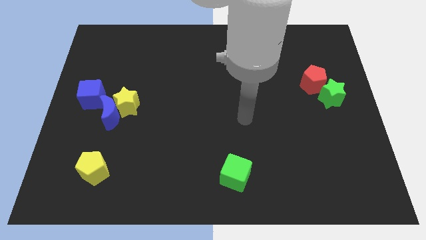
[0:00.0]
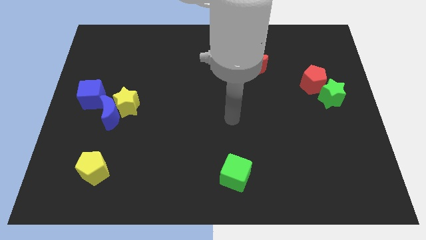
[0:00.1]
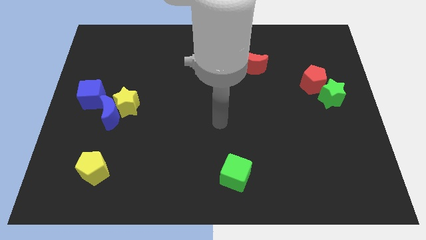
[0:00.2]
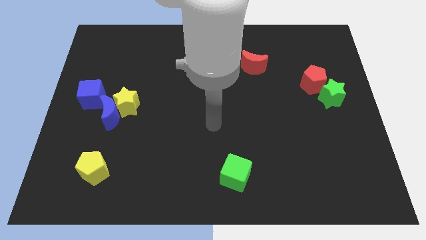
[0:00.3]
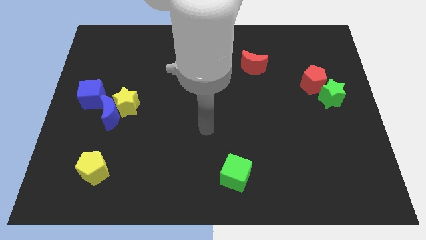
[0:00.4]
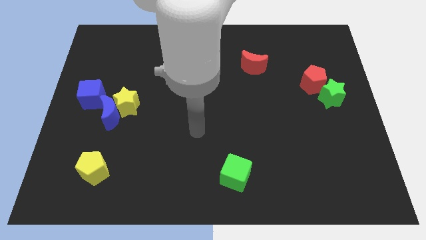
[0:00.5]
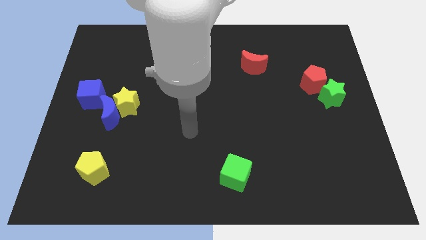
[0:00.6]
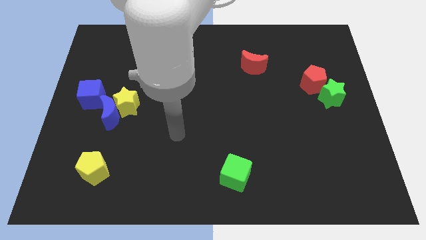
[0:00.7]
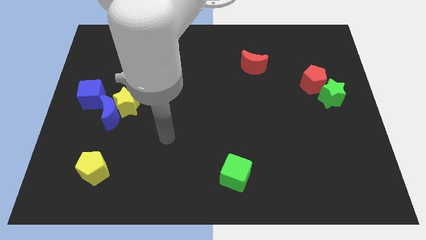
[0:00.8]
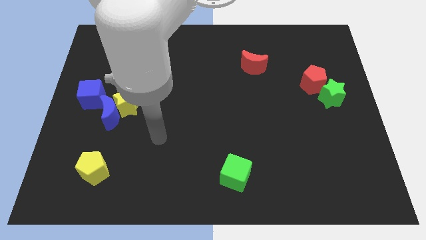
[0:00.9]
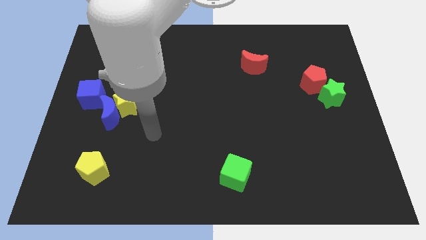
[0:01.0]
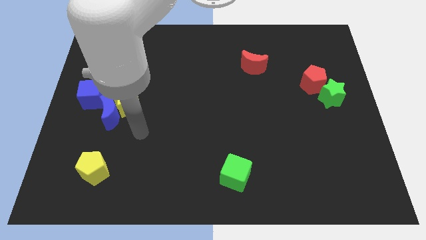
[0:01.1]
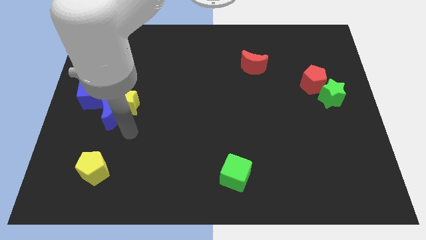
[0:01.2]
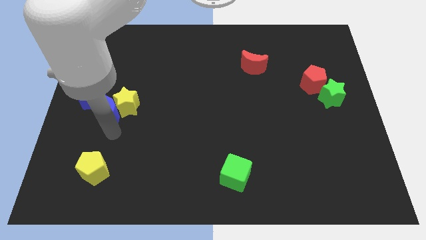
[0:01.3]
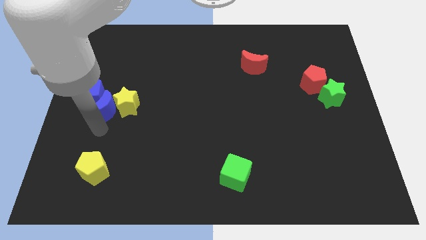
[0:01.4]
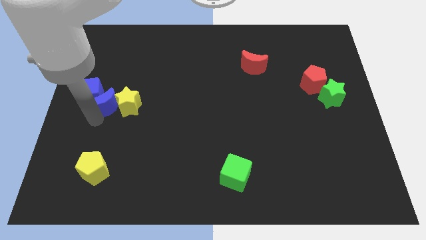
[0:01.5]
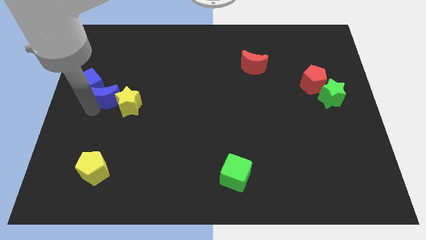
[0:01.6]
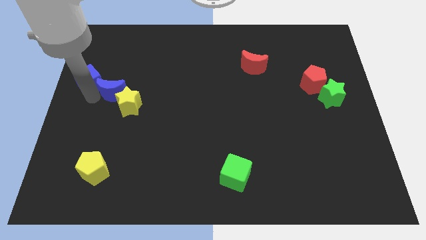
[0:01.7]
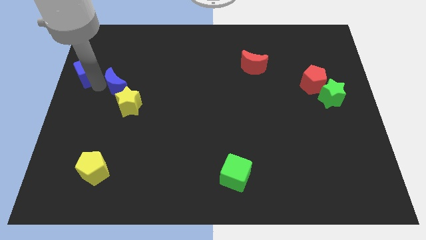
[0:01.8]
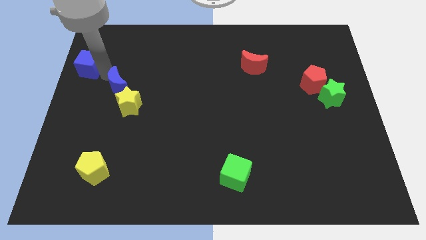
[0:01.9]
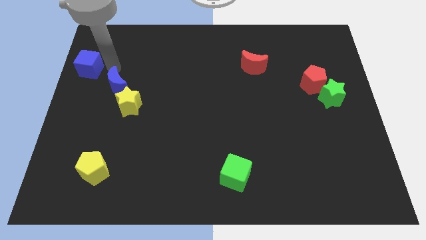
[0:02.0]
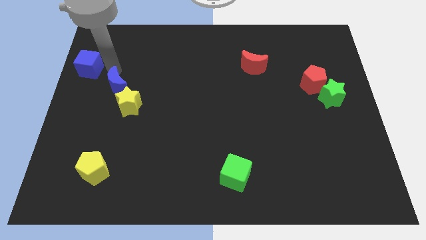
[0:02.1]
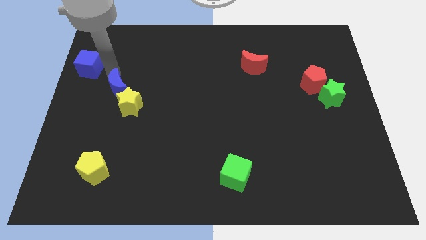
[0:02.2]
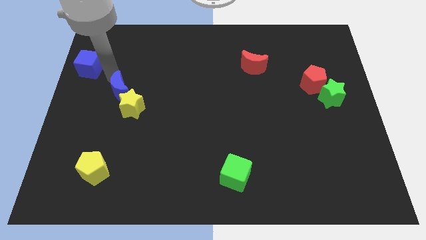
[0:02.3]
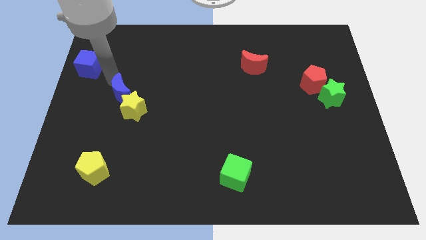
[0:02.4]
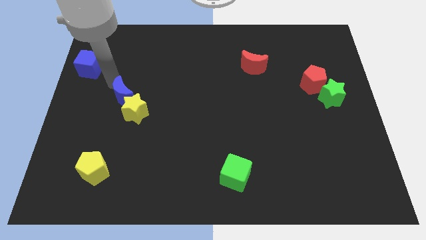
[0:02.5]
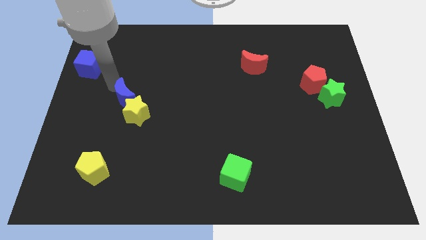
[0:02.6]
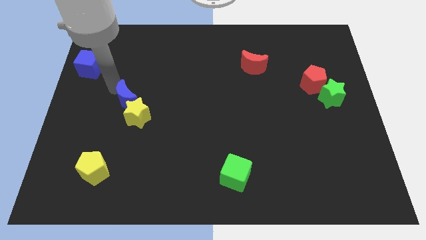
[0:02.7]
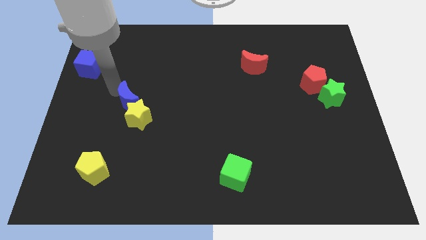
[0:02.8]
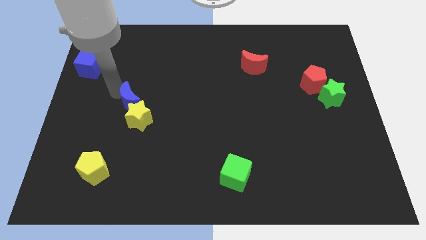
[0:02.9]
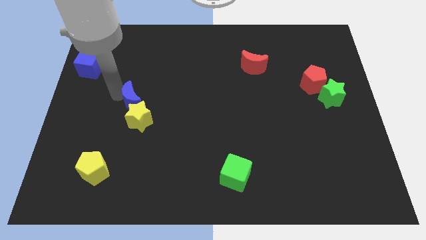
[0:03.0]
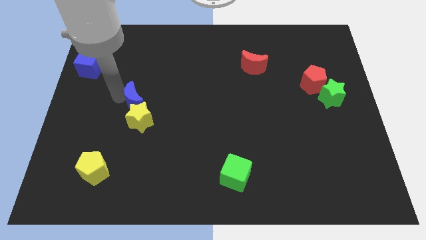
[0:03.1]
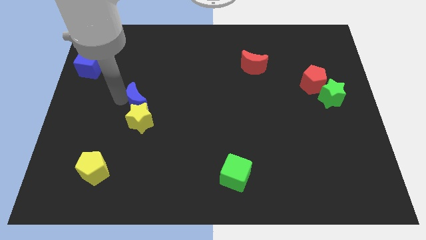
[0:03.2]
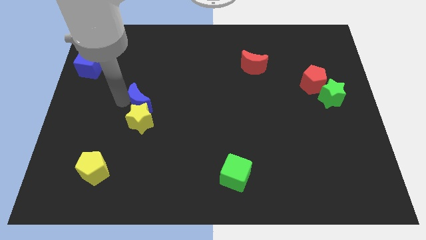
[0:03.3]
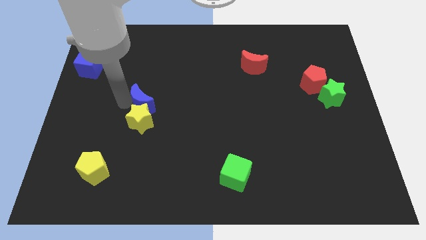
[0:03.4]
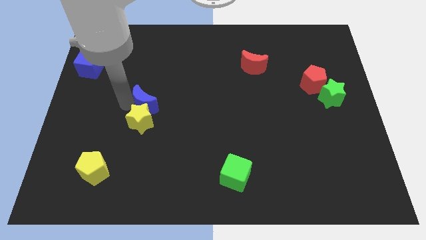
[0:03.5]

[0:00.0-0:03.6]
slide the blue moon a bit right

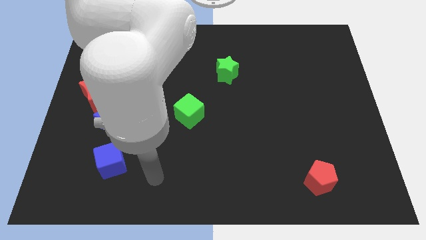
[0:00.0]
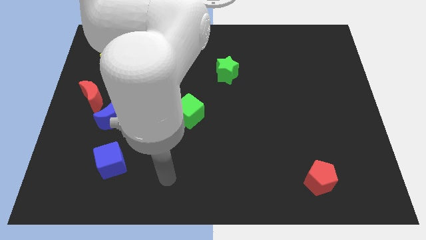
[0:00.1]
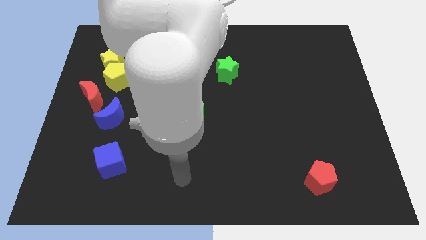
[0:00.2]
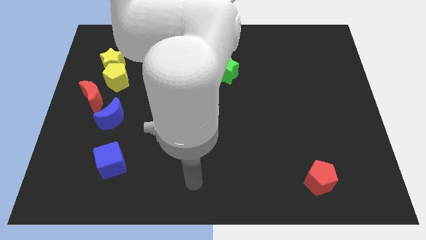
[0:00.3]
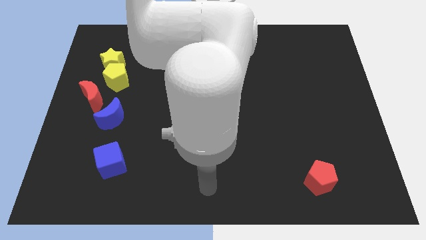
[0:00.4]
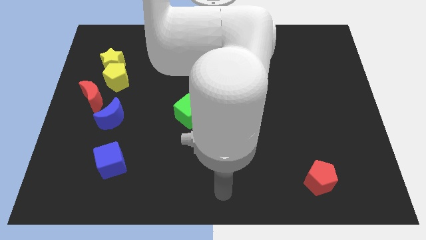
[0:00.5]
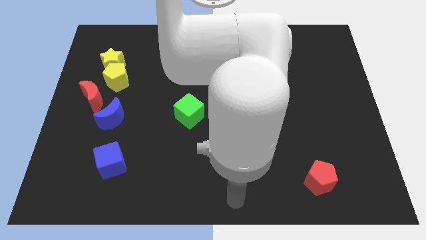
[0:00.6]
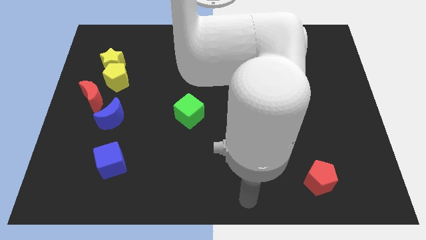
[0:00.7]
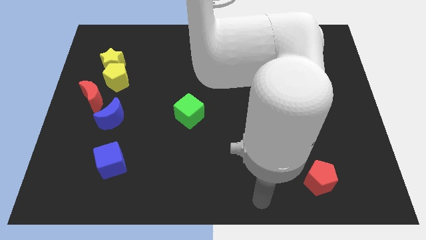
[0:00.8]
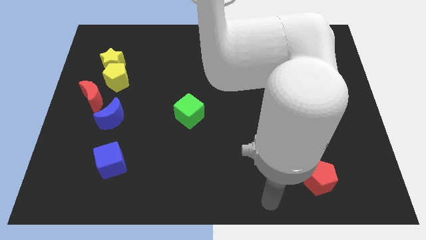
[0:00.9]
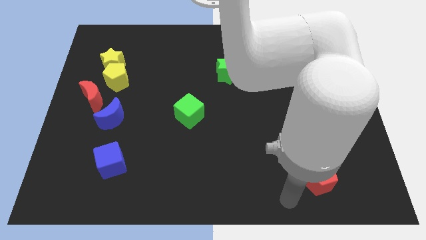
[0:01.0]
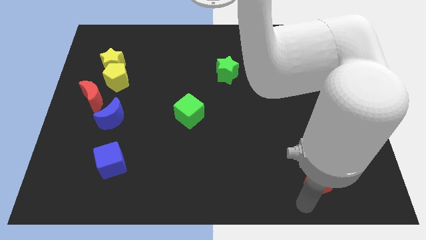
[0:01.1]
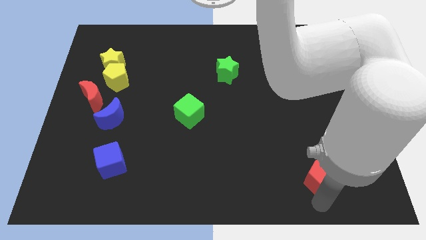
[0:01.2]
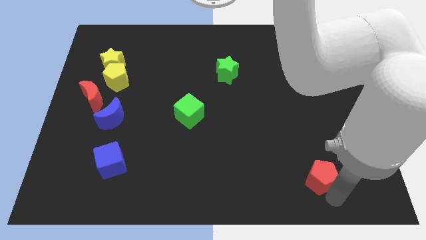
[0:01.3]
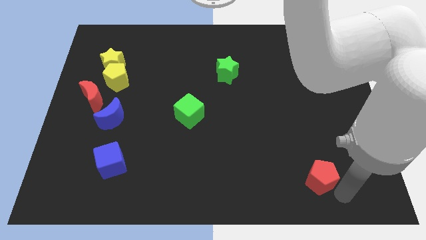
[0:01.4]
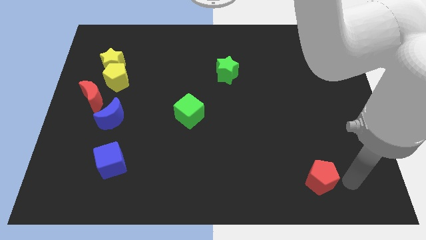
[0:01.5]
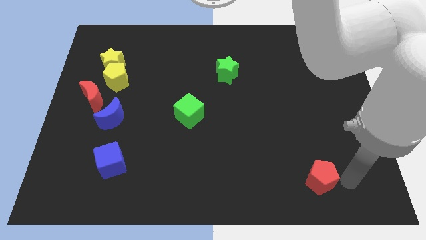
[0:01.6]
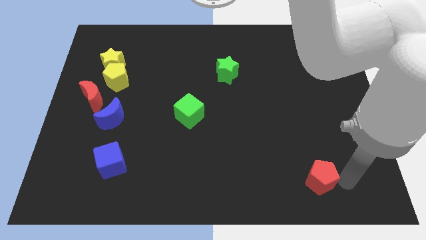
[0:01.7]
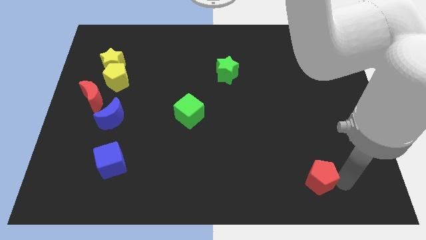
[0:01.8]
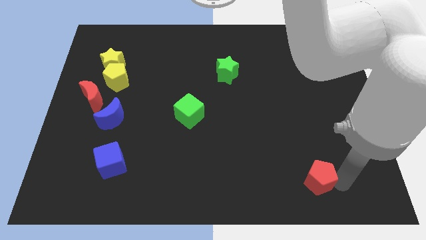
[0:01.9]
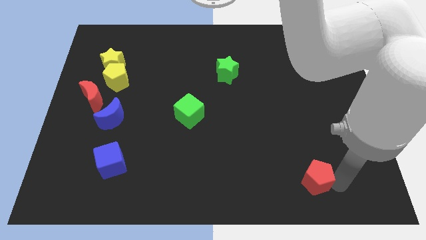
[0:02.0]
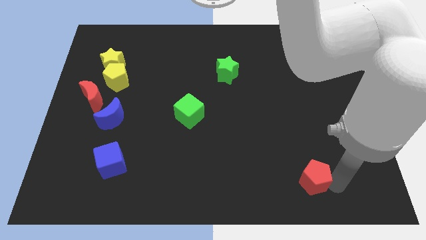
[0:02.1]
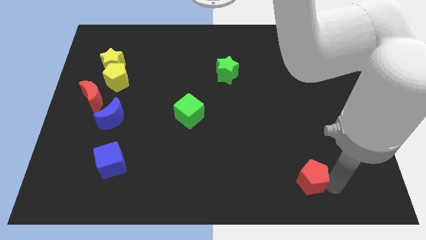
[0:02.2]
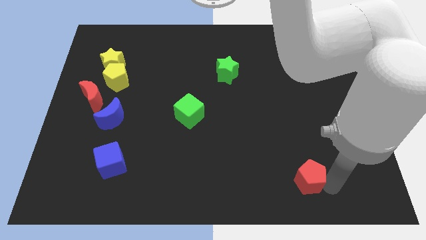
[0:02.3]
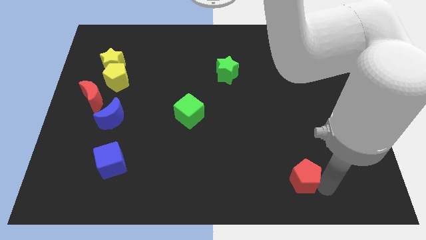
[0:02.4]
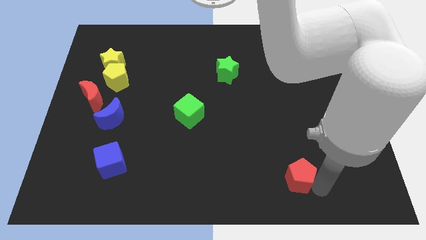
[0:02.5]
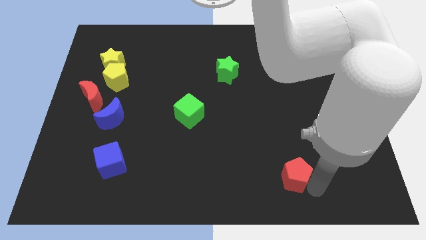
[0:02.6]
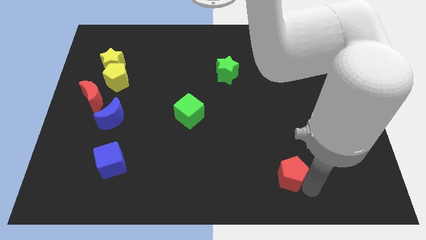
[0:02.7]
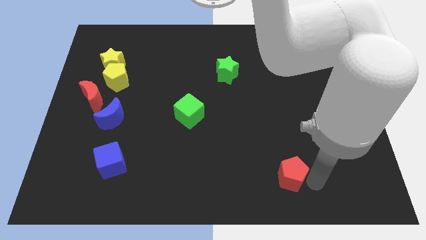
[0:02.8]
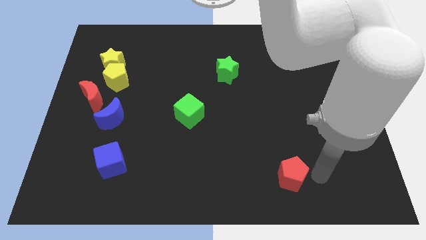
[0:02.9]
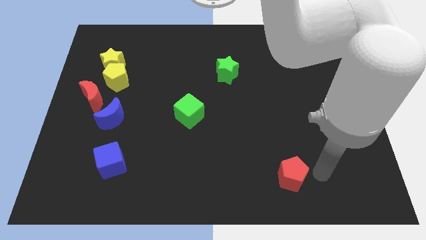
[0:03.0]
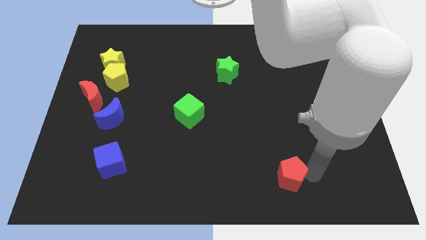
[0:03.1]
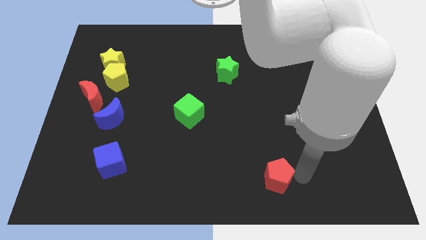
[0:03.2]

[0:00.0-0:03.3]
slightly slide the red pentagon left

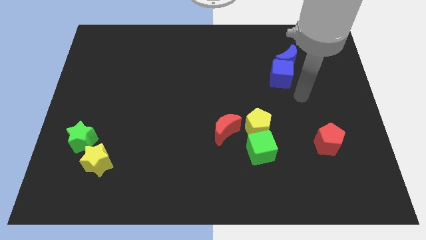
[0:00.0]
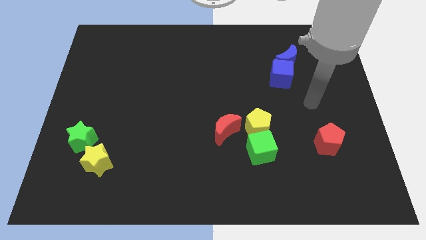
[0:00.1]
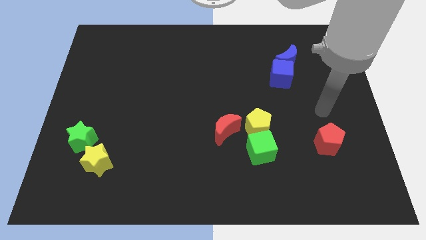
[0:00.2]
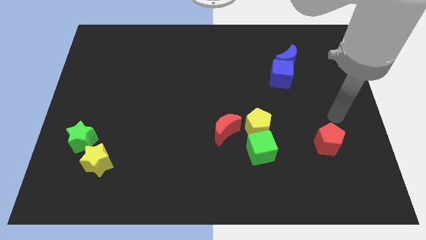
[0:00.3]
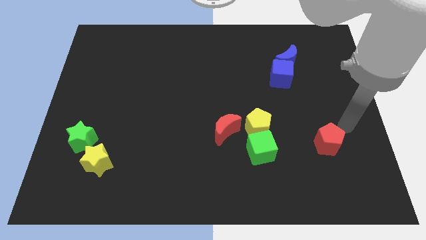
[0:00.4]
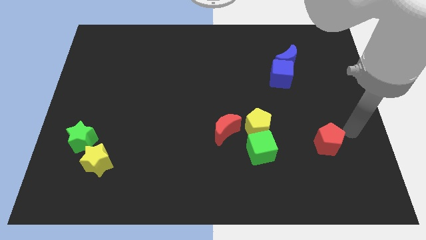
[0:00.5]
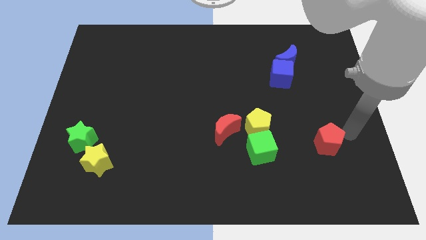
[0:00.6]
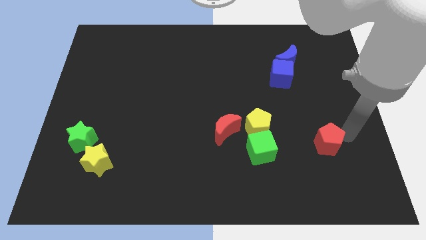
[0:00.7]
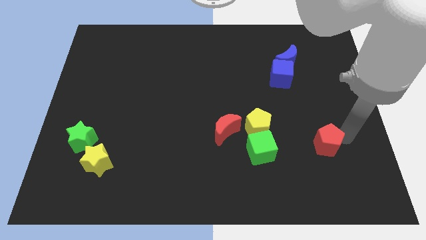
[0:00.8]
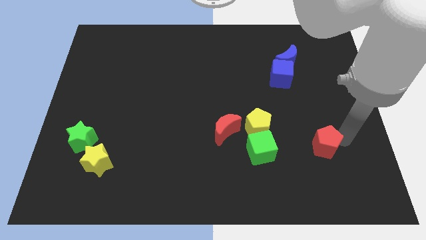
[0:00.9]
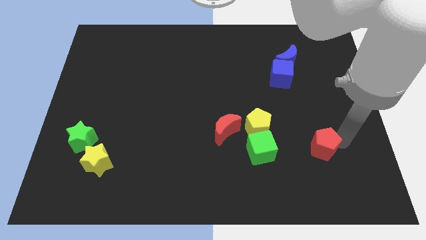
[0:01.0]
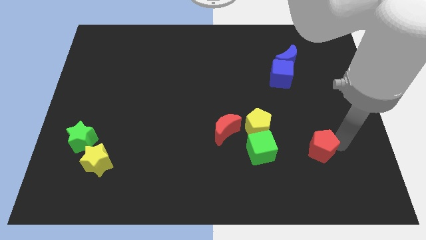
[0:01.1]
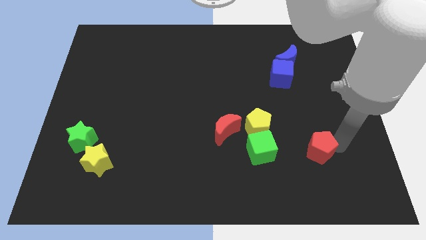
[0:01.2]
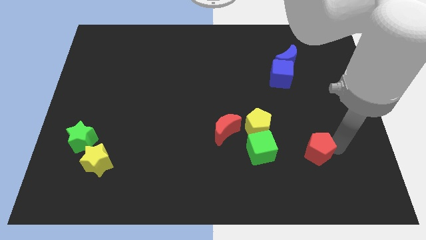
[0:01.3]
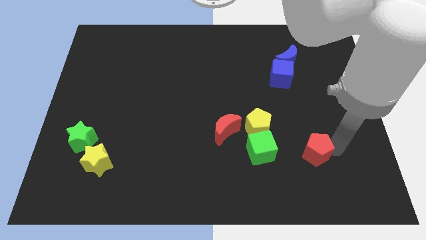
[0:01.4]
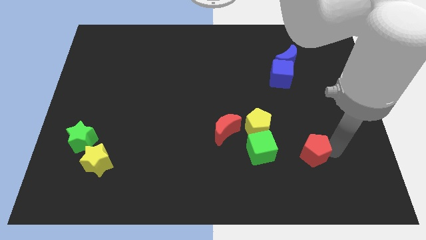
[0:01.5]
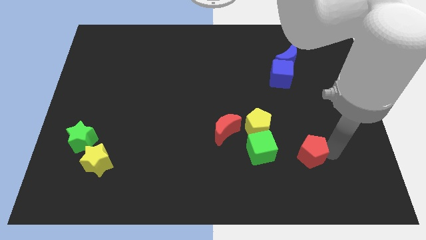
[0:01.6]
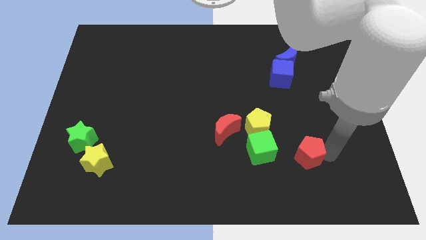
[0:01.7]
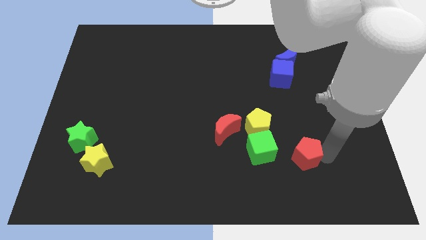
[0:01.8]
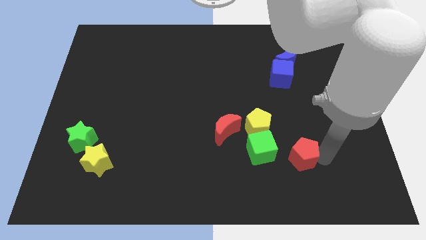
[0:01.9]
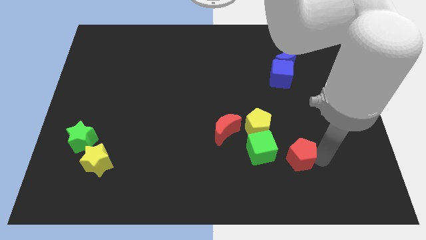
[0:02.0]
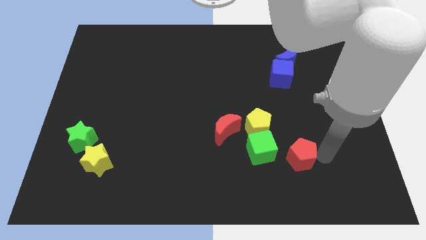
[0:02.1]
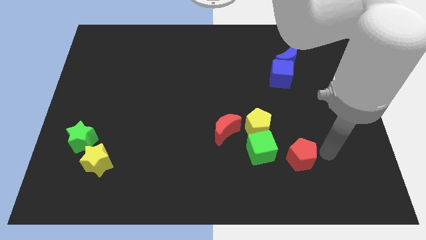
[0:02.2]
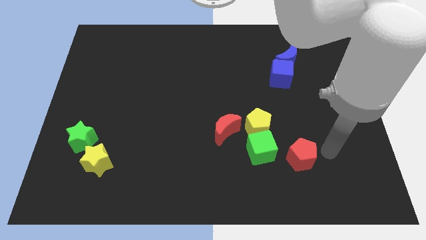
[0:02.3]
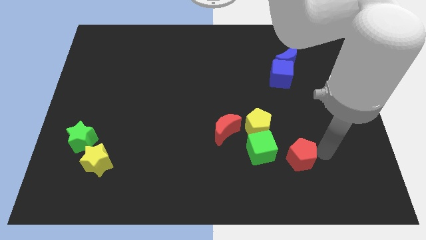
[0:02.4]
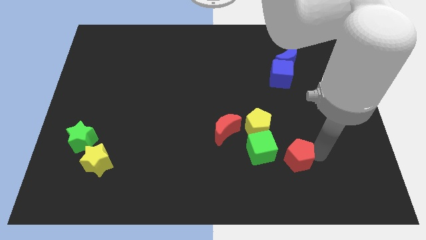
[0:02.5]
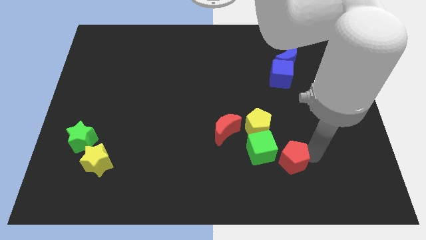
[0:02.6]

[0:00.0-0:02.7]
push the red pentagon somewhat to the left
